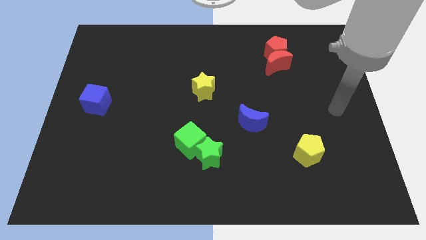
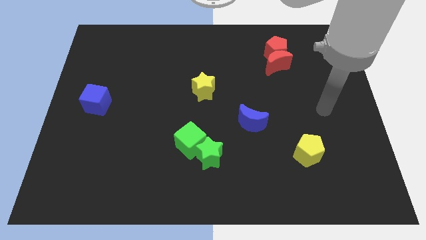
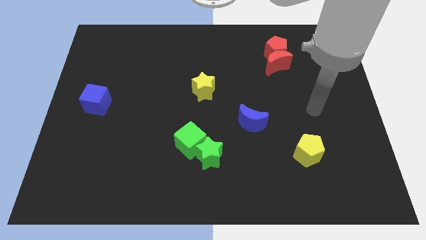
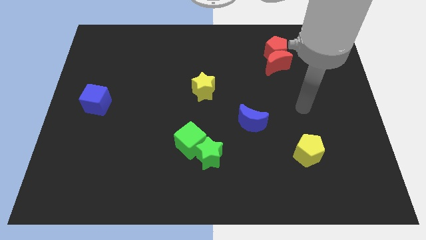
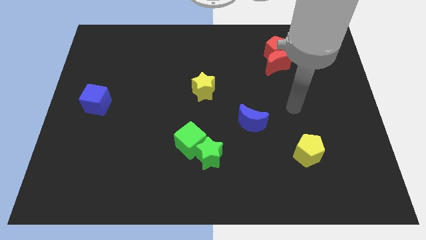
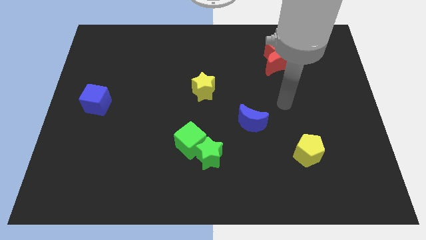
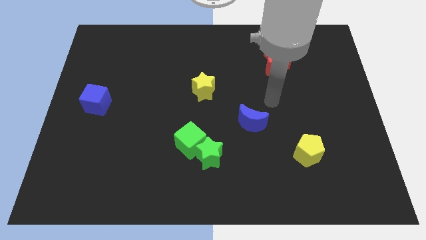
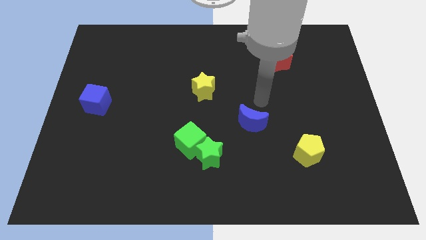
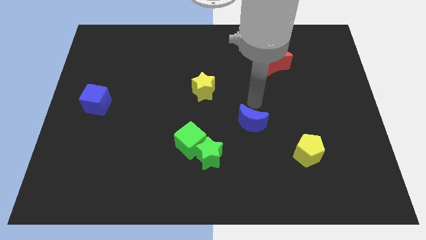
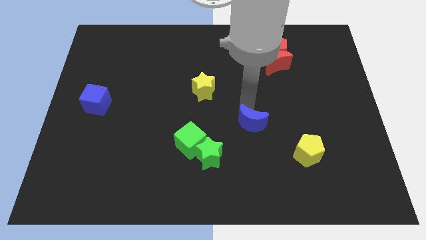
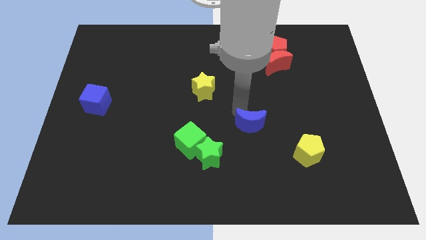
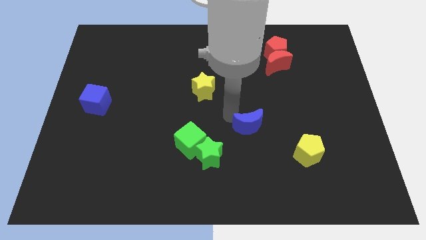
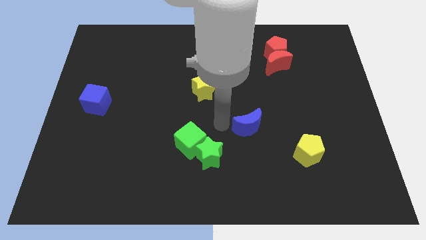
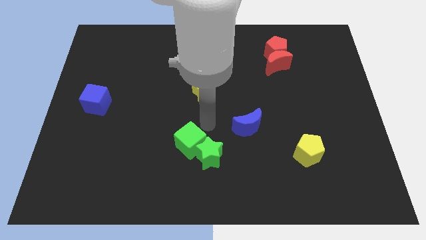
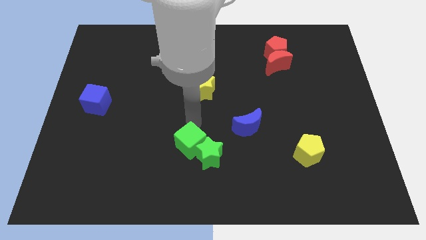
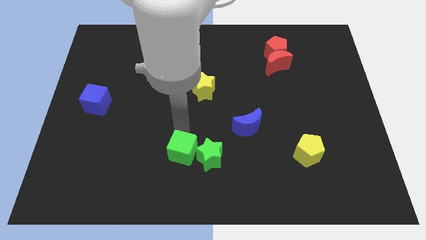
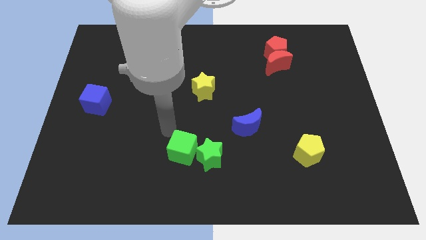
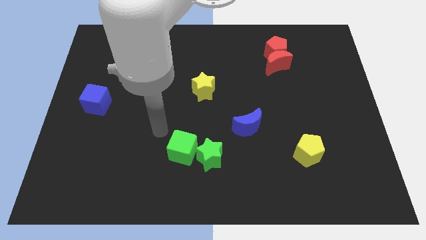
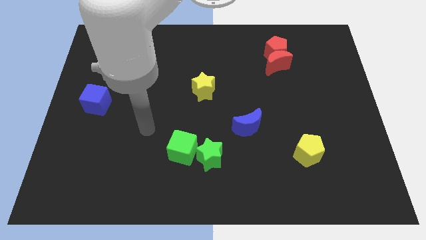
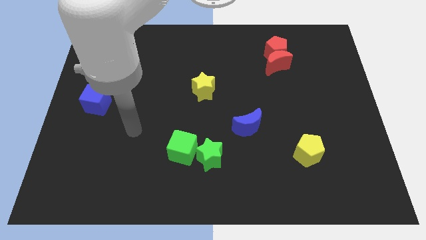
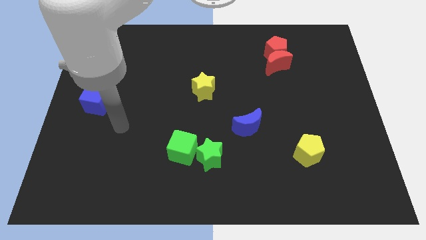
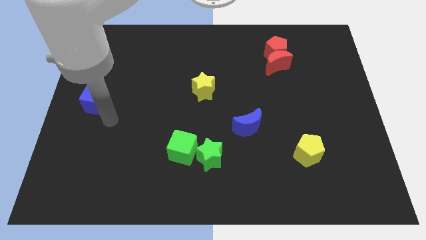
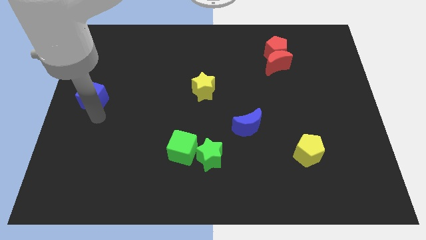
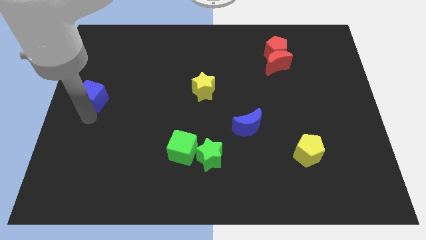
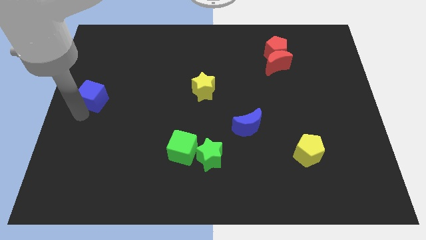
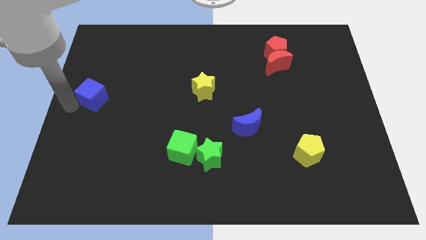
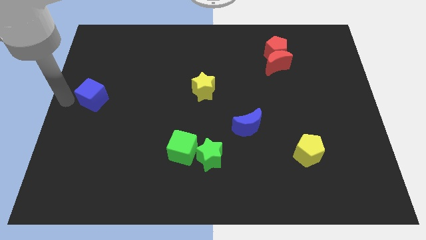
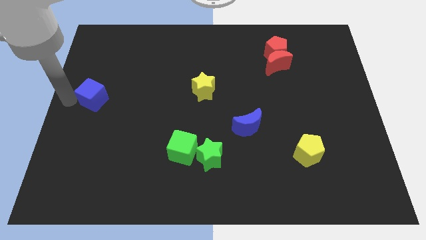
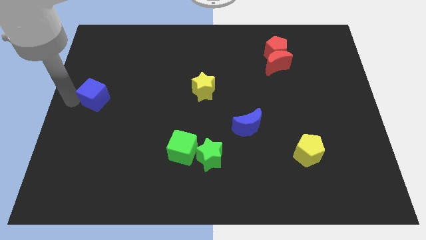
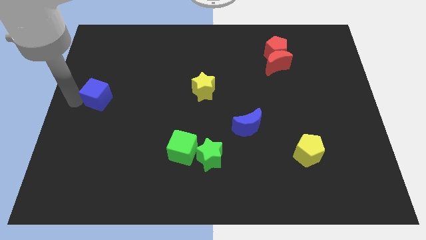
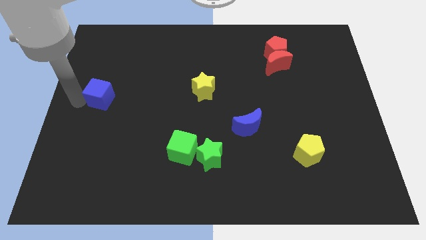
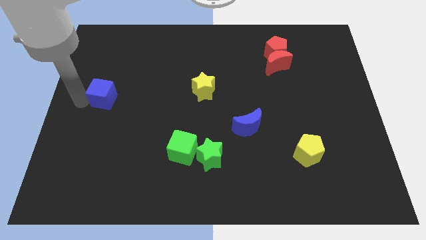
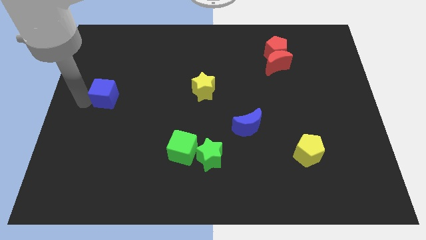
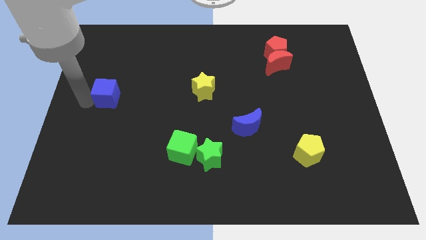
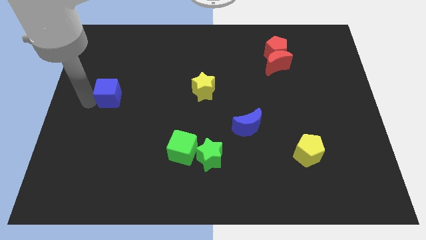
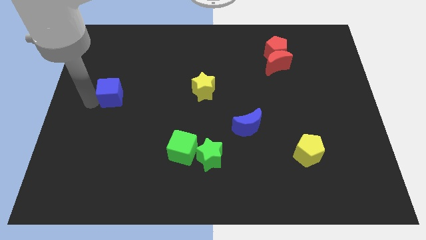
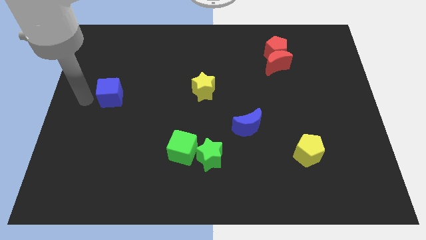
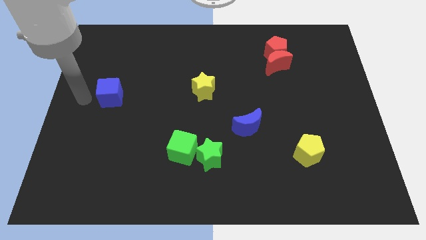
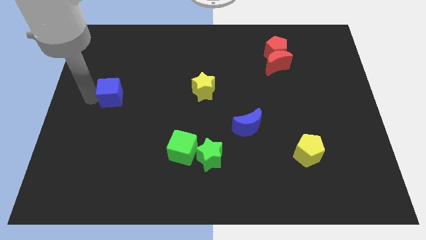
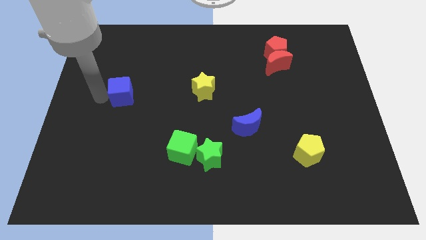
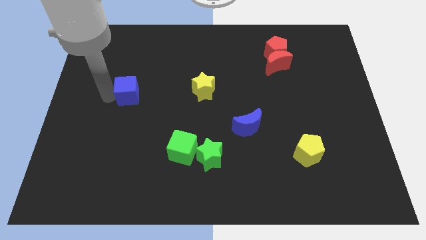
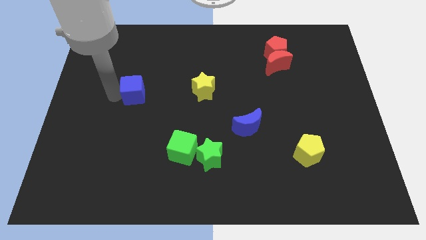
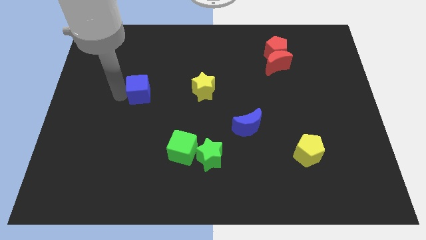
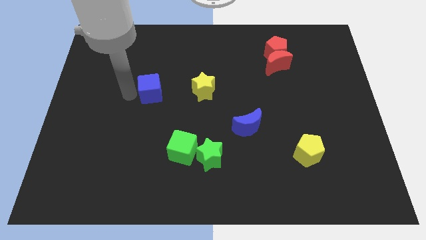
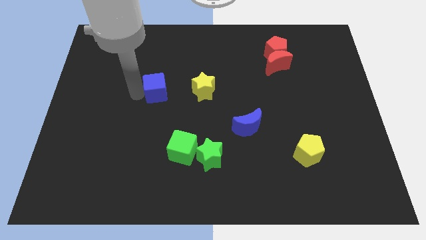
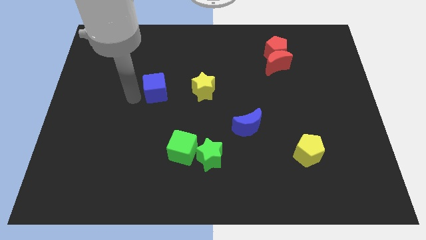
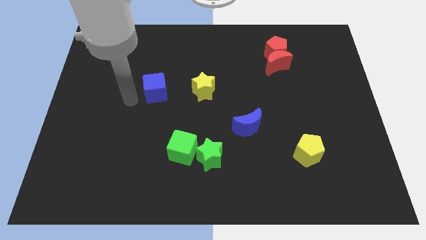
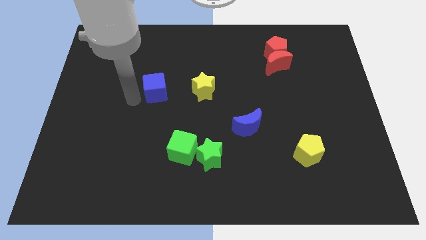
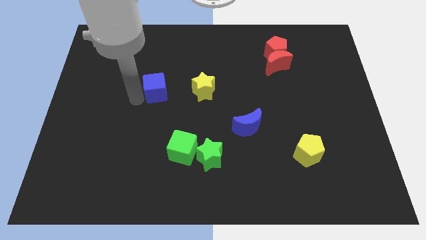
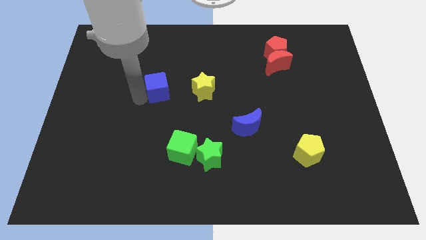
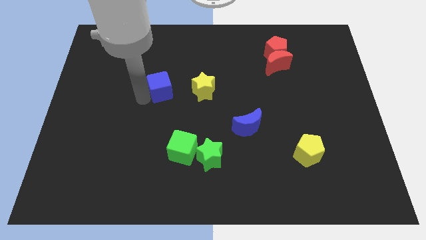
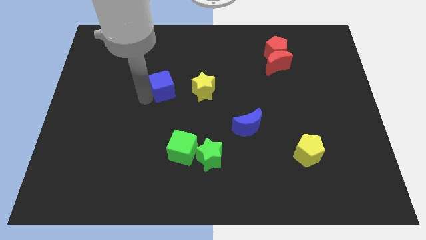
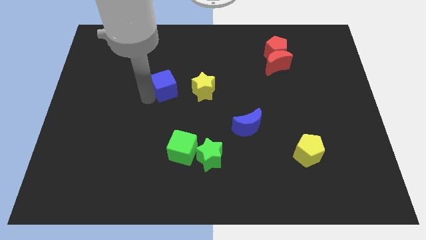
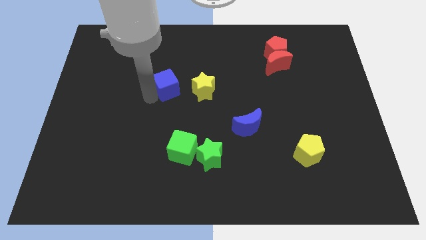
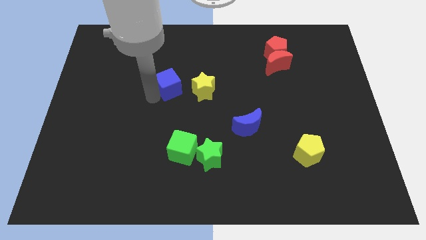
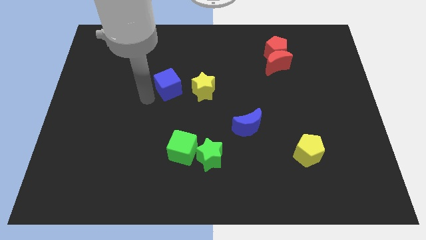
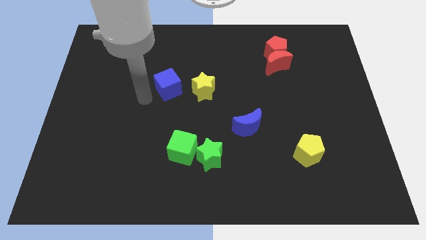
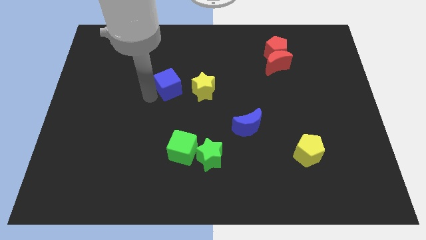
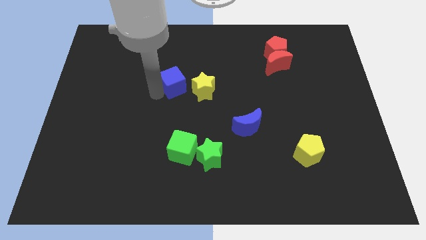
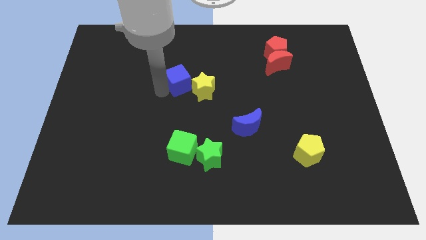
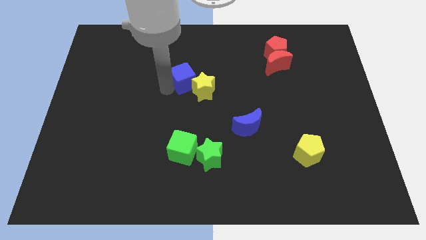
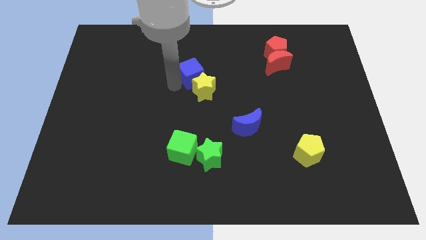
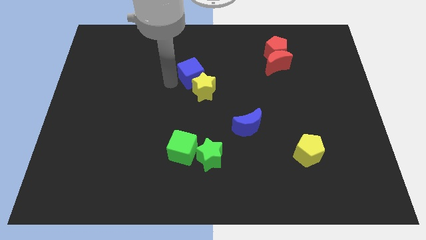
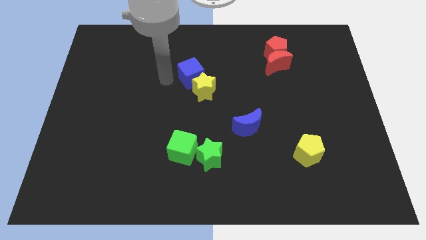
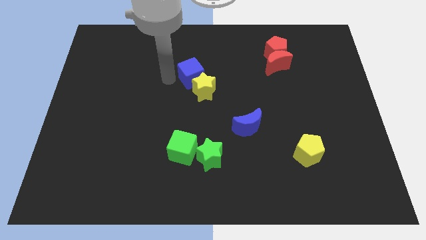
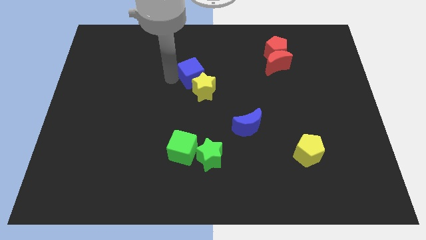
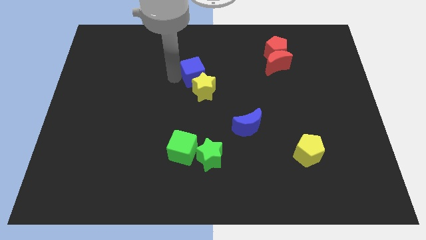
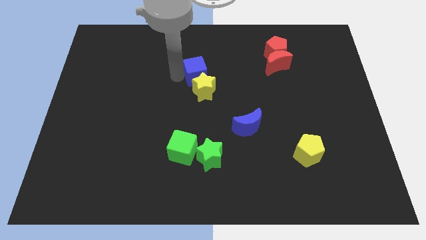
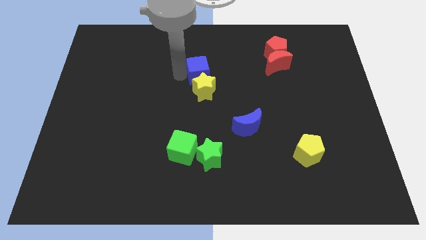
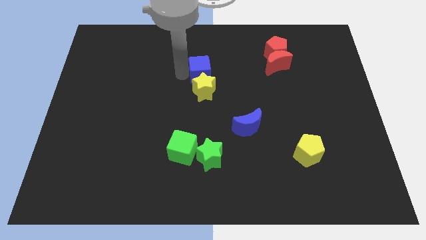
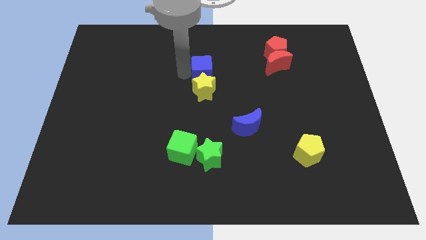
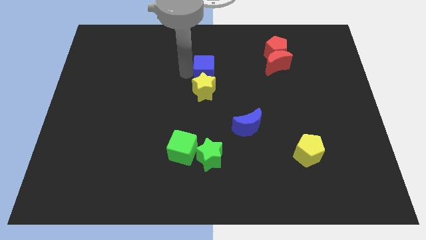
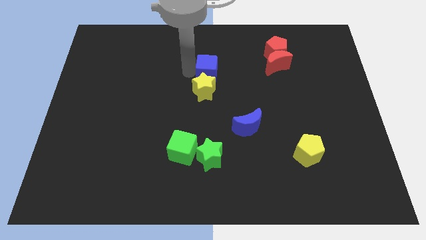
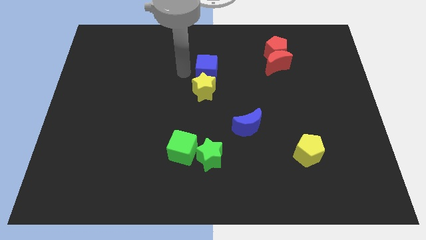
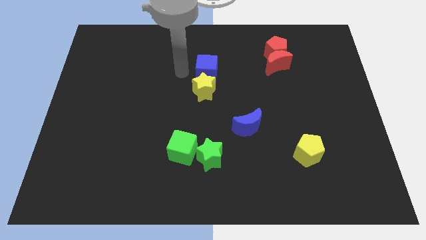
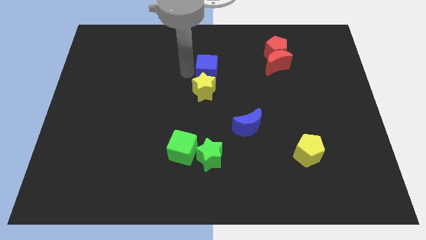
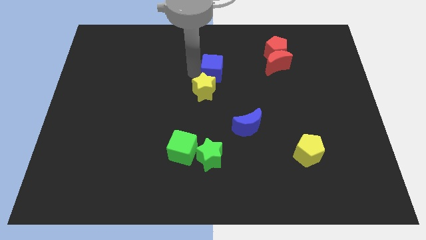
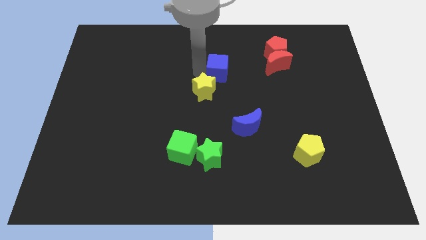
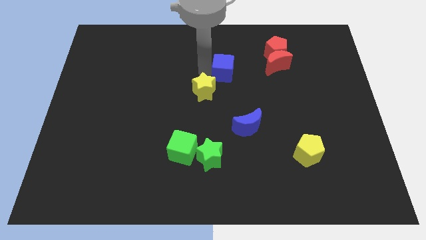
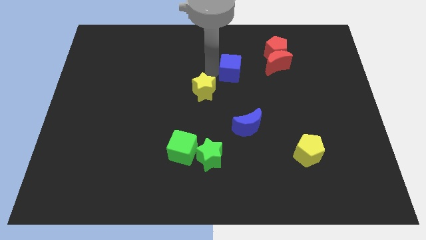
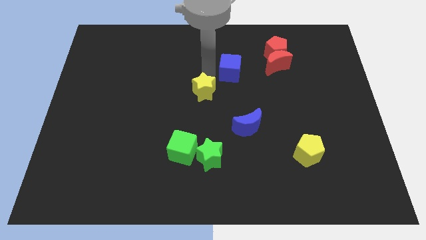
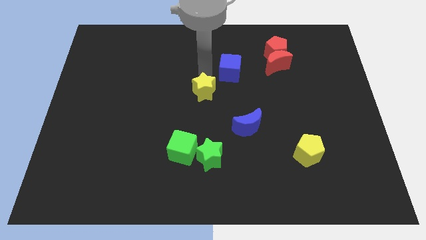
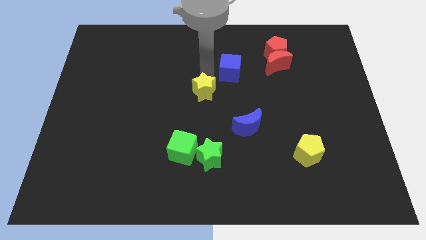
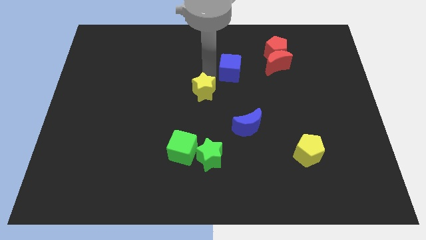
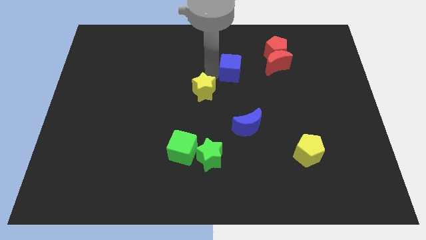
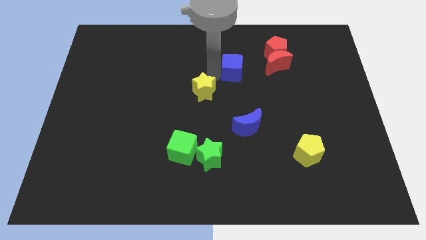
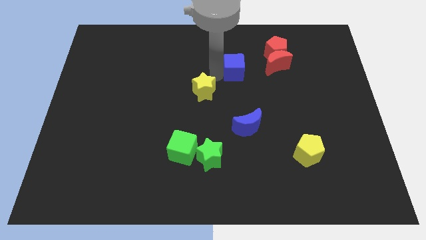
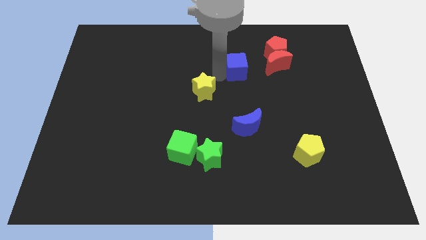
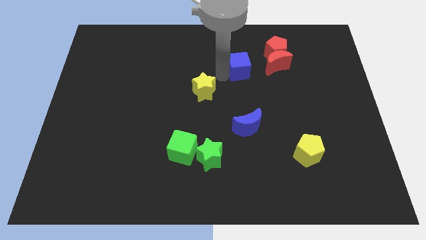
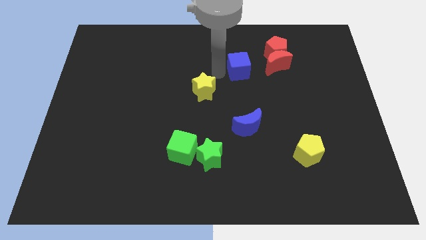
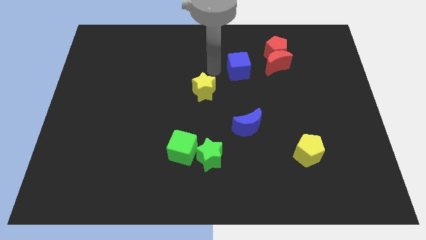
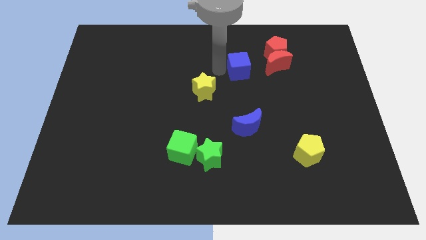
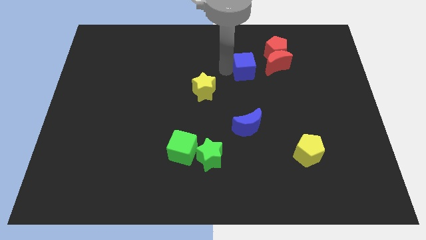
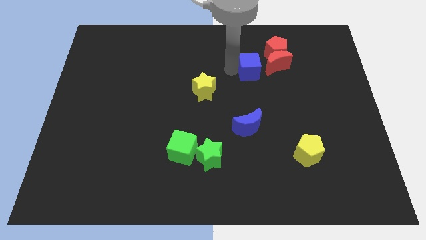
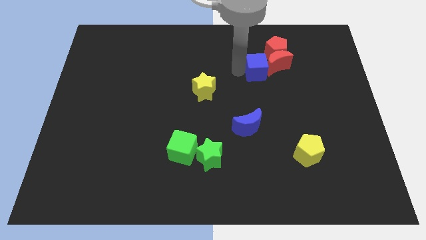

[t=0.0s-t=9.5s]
push the blue cube towards the red moon
